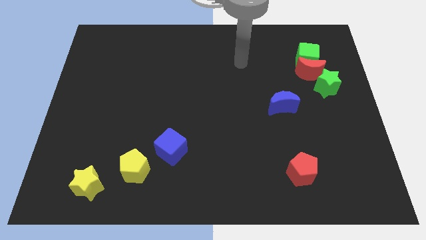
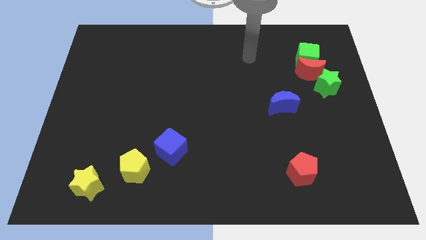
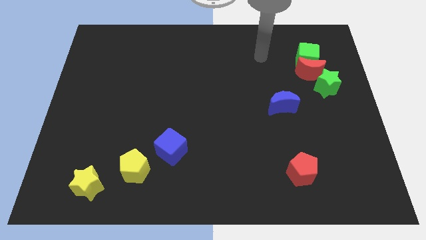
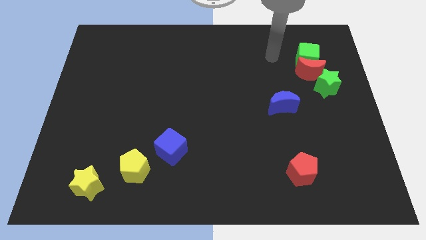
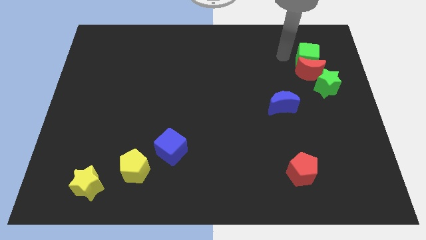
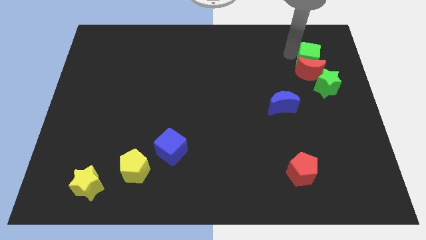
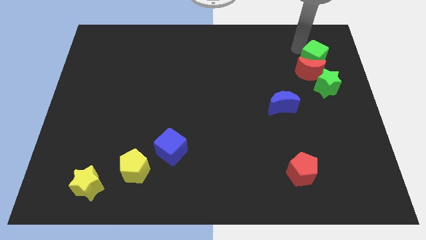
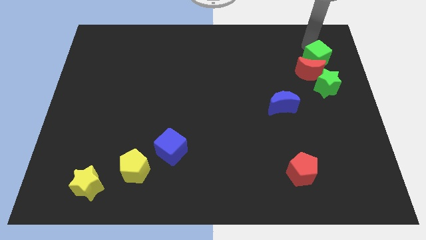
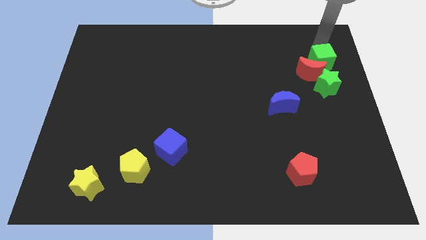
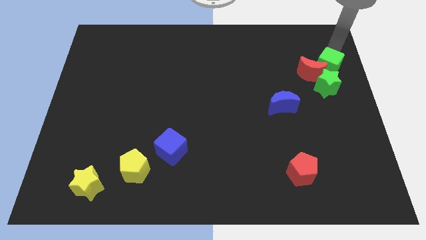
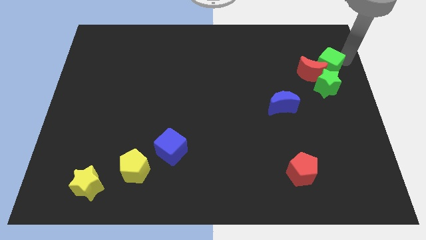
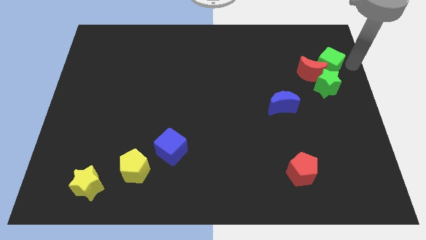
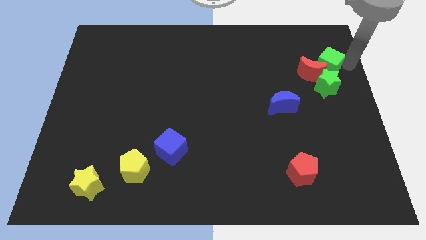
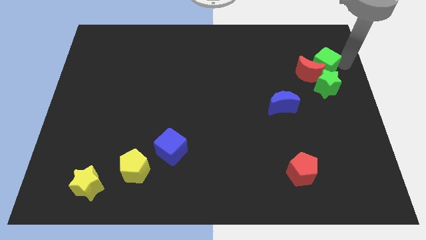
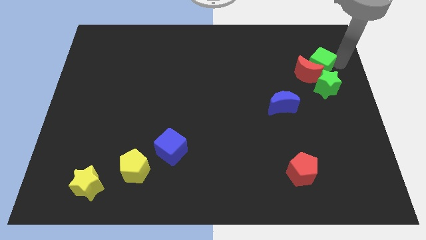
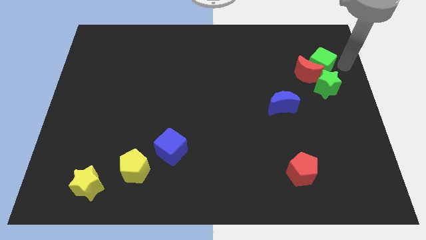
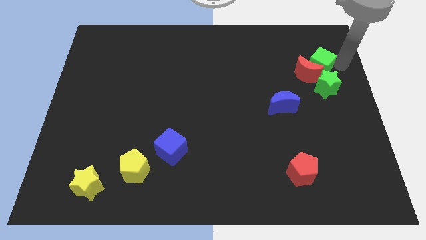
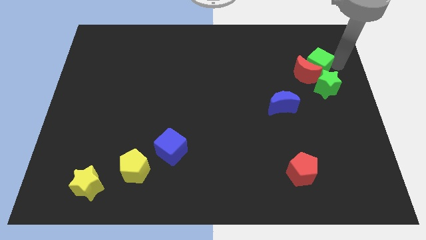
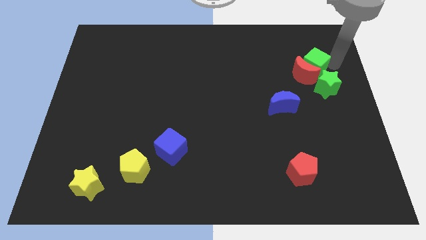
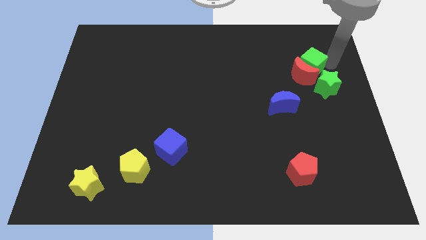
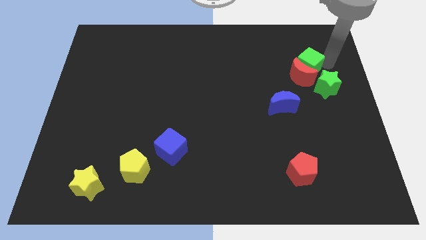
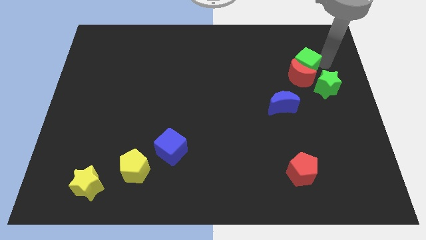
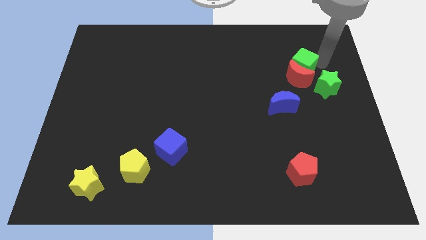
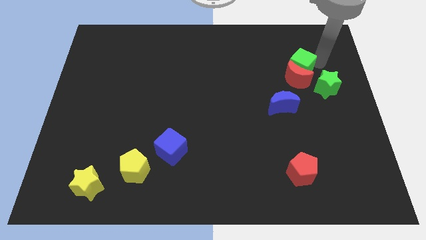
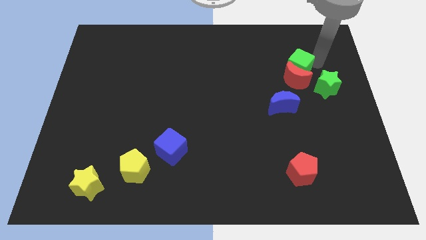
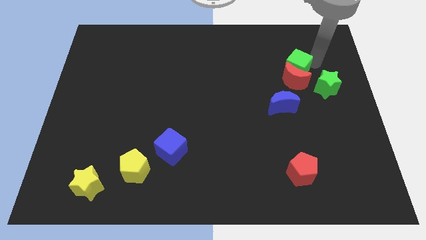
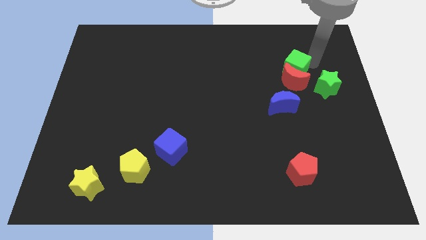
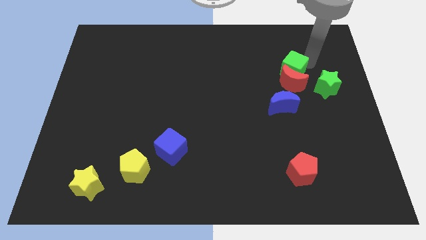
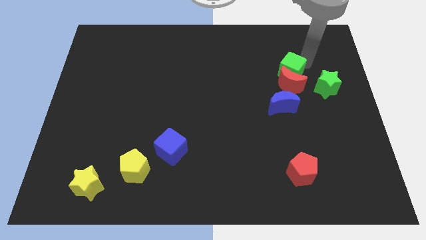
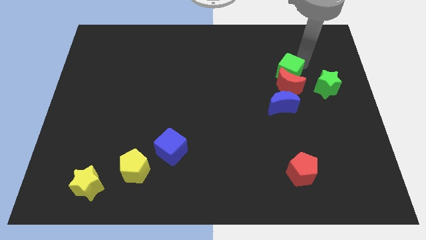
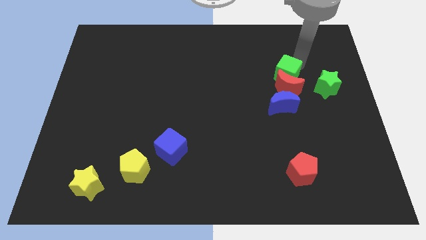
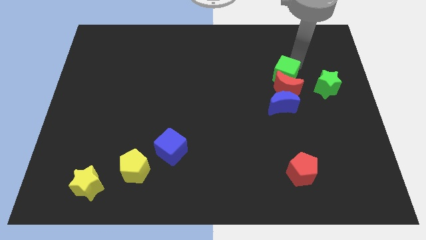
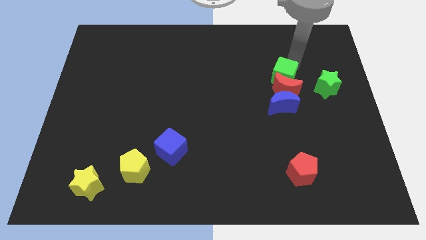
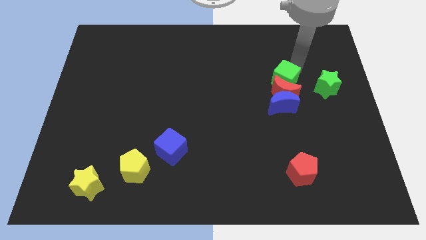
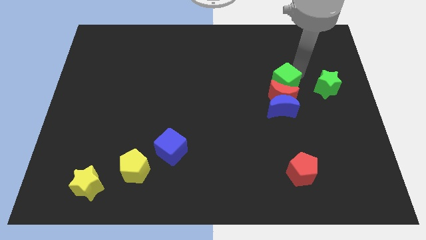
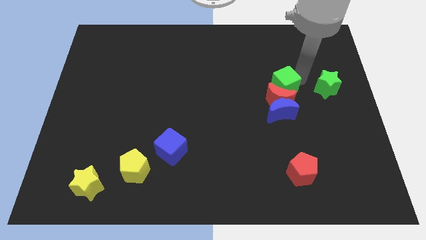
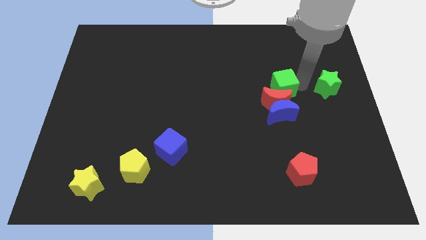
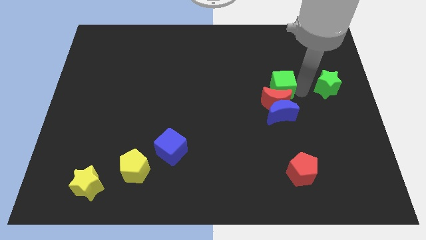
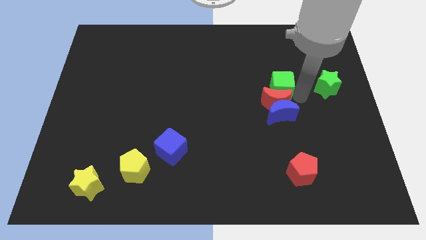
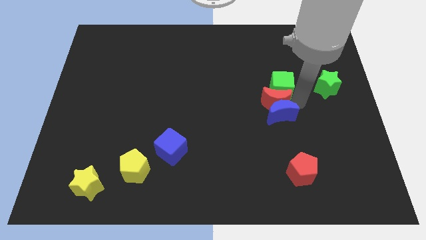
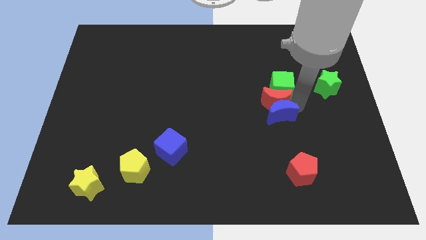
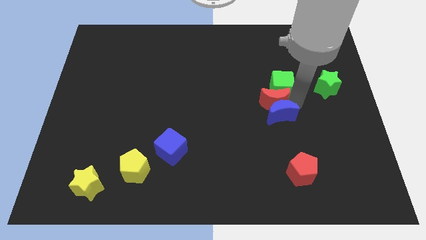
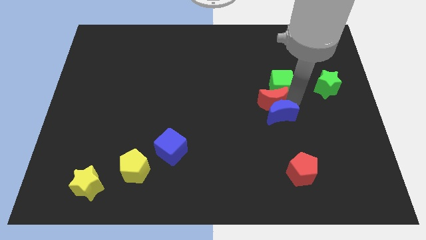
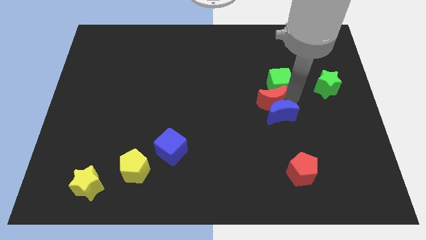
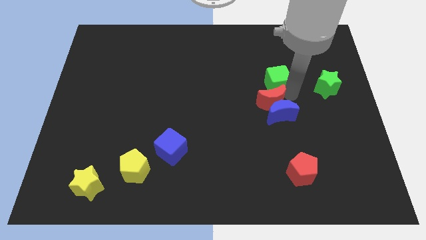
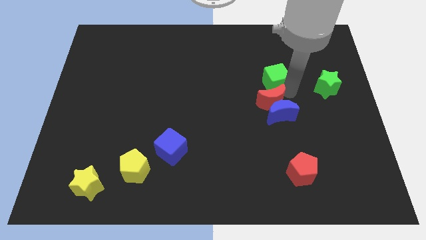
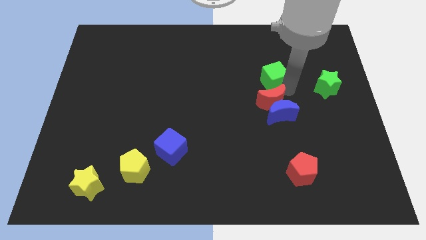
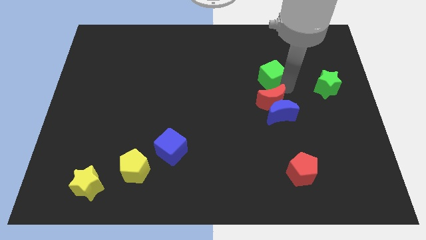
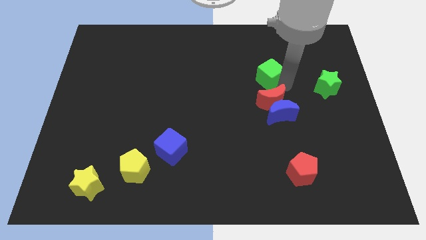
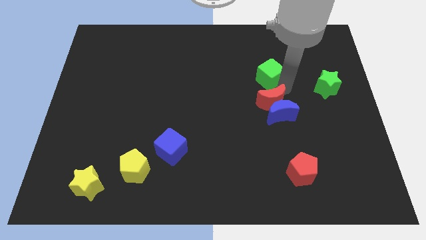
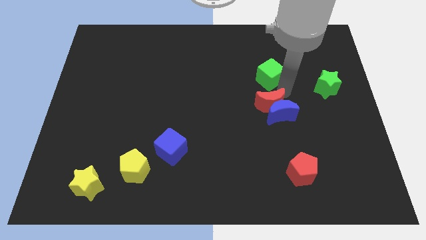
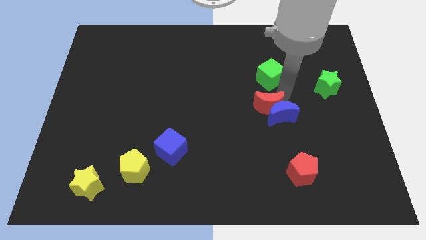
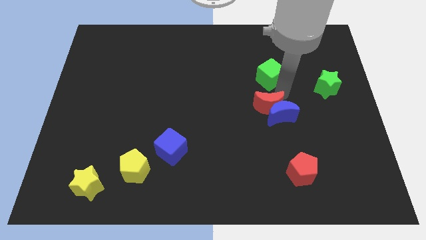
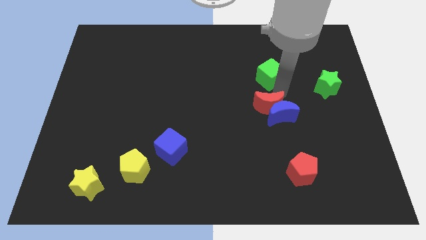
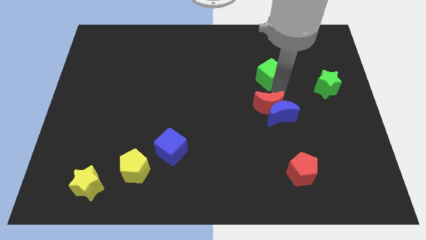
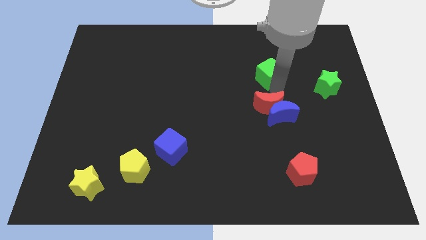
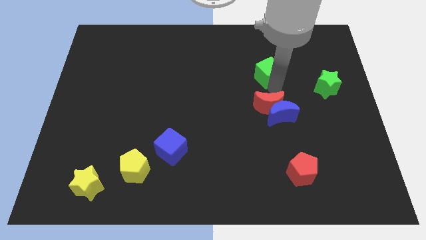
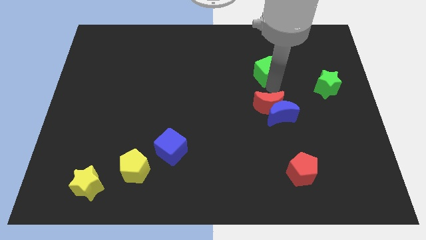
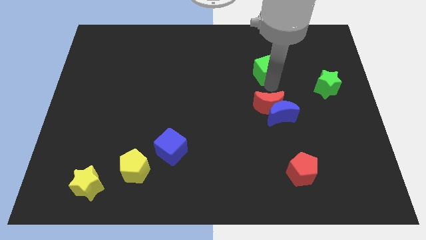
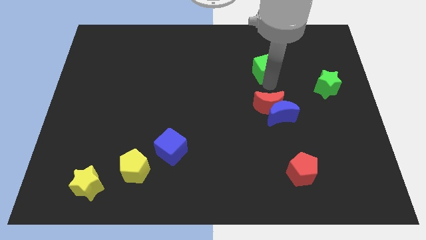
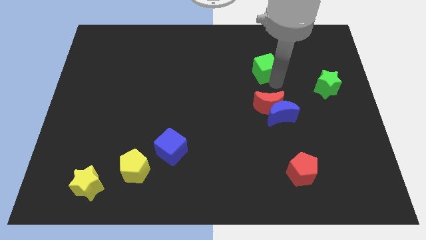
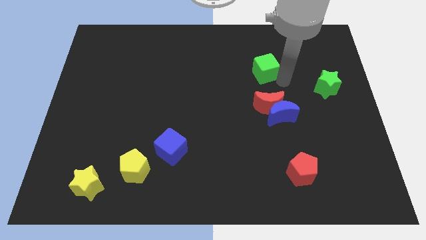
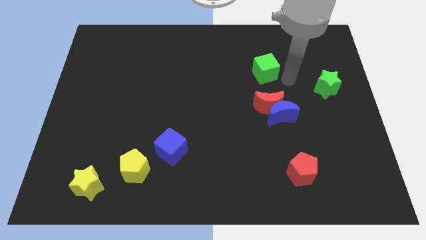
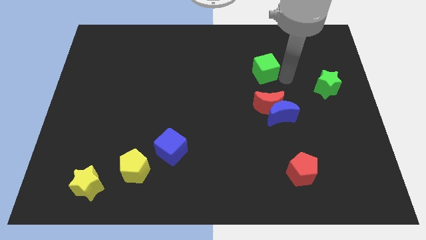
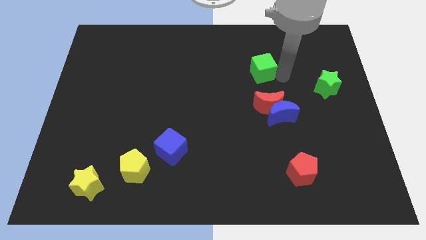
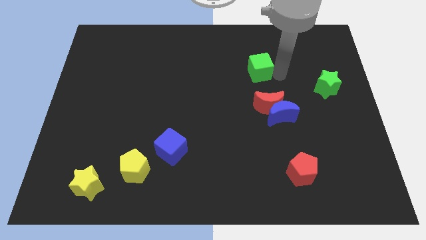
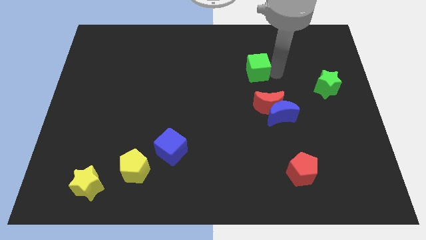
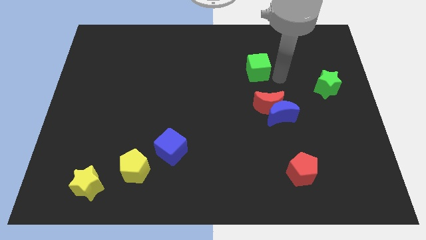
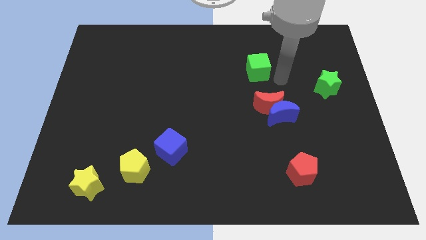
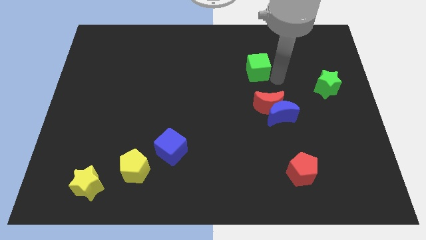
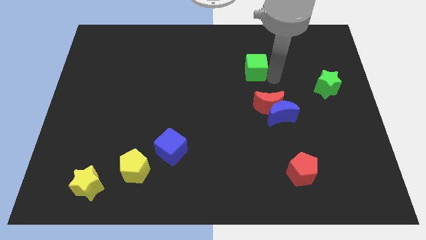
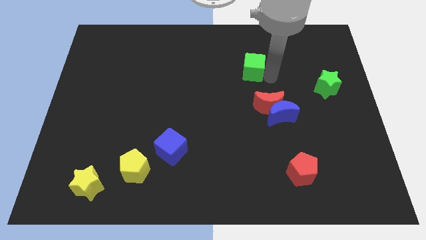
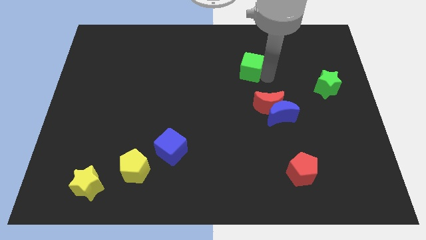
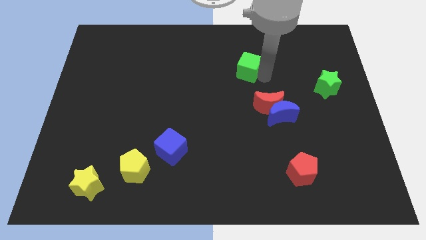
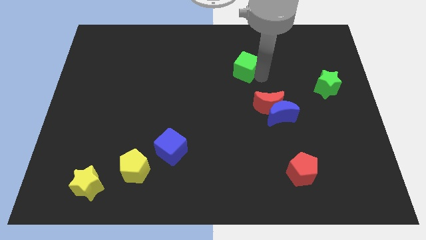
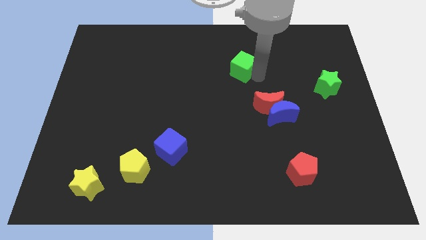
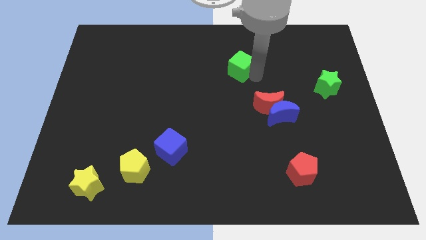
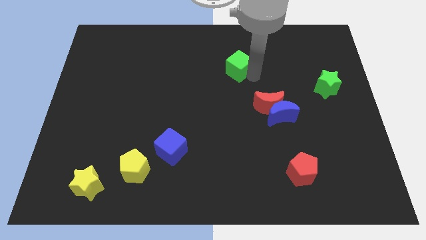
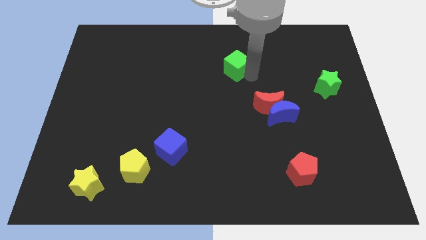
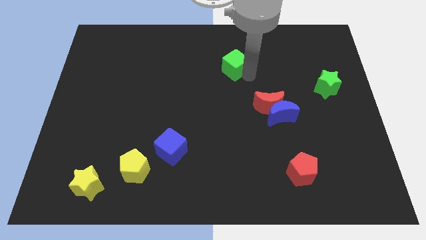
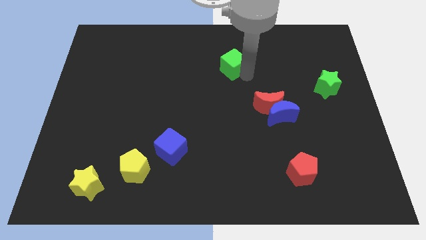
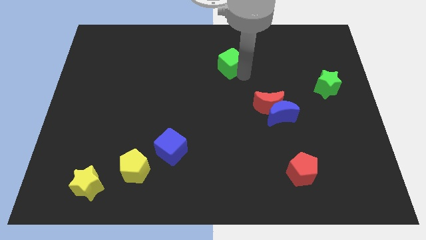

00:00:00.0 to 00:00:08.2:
slide the green cube left
